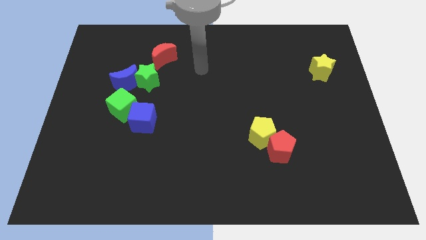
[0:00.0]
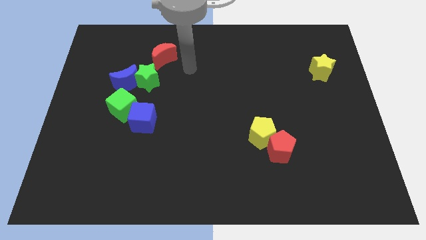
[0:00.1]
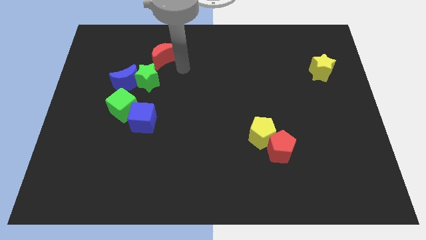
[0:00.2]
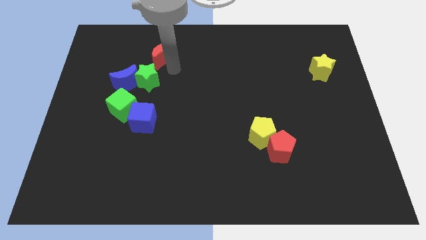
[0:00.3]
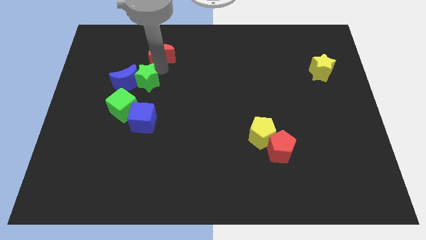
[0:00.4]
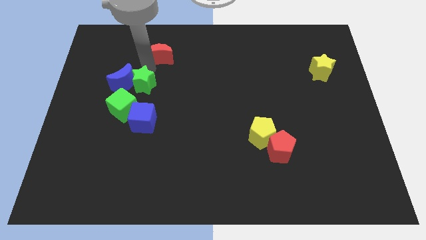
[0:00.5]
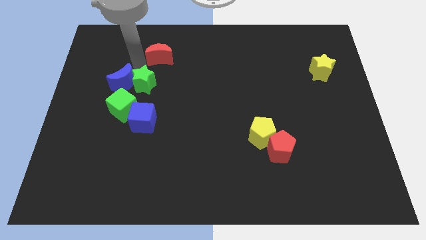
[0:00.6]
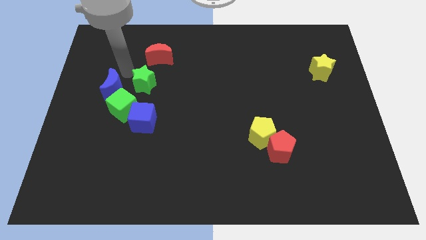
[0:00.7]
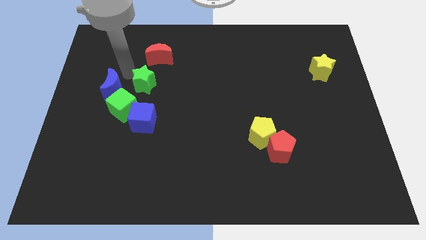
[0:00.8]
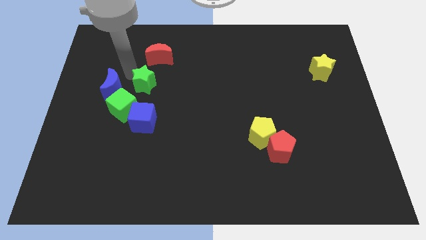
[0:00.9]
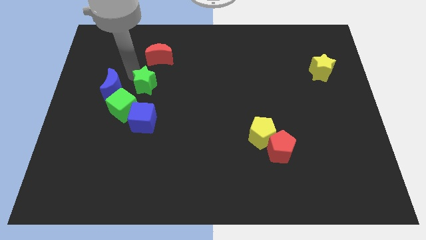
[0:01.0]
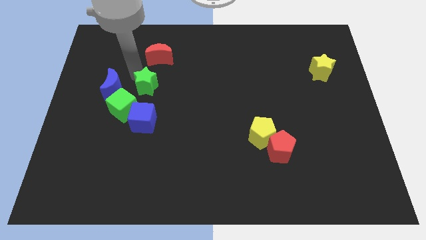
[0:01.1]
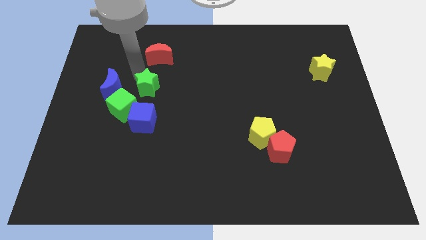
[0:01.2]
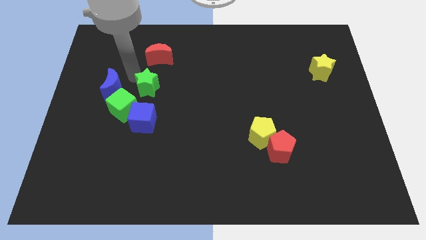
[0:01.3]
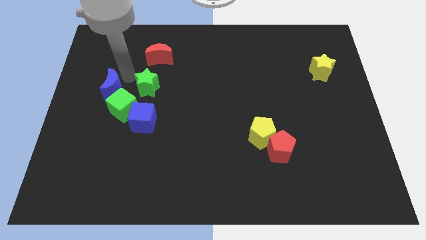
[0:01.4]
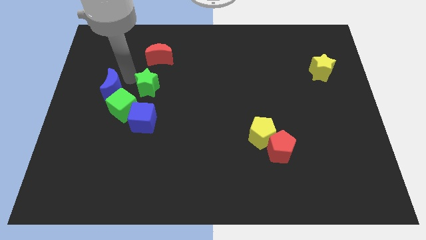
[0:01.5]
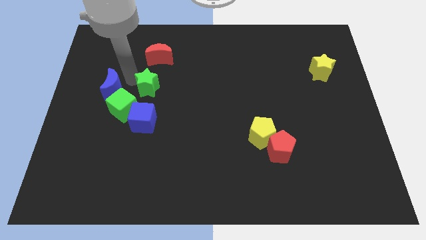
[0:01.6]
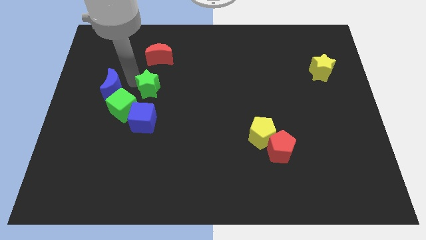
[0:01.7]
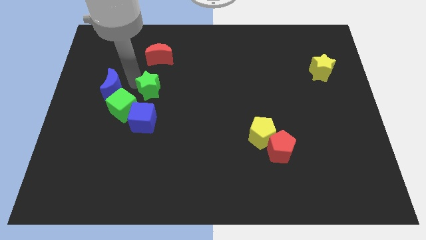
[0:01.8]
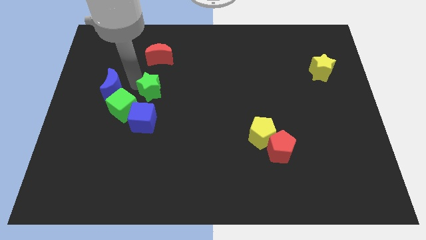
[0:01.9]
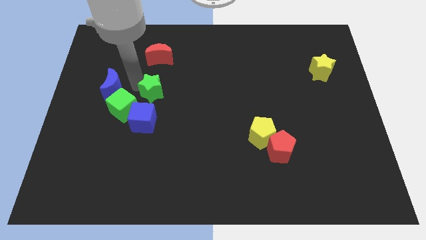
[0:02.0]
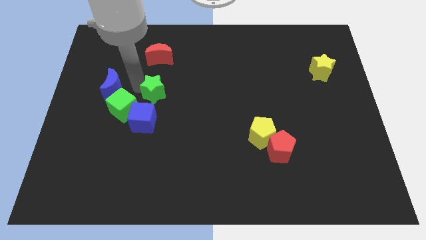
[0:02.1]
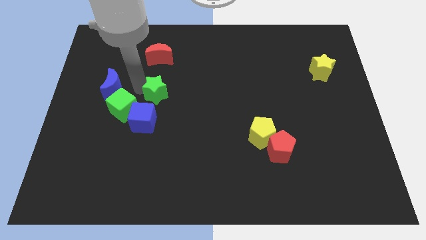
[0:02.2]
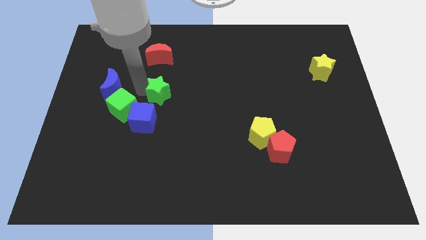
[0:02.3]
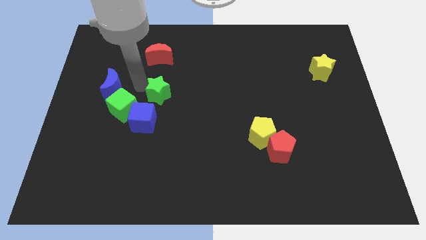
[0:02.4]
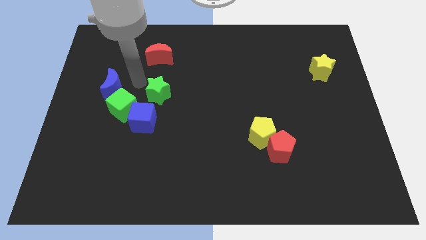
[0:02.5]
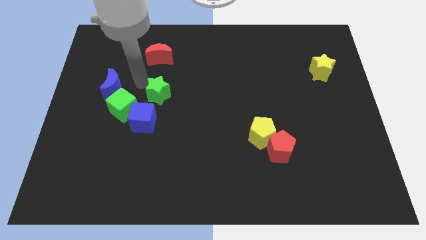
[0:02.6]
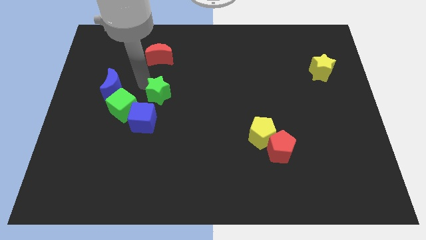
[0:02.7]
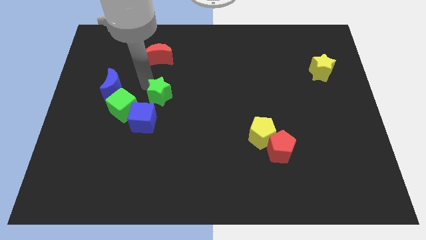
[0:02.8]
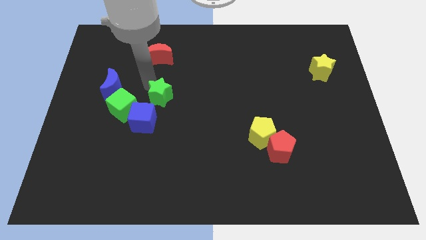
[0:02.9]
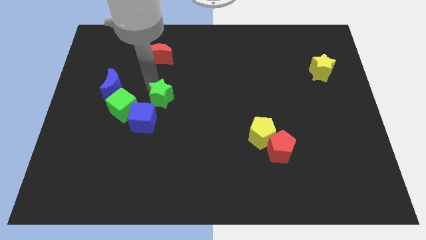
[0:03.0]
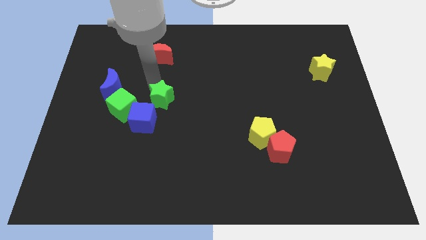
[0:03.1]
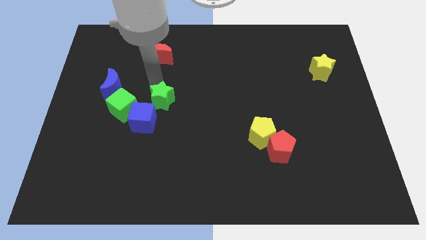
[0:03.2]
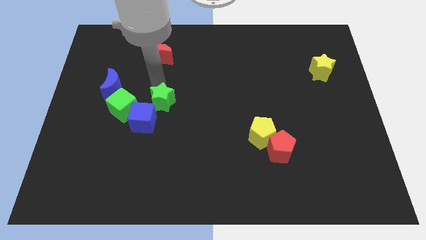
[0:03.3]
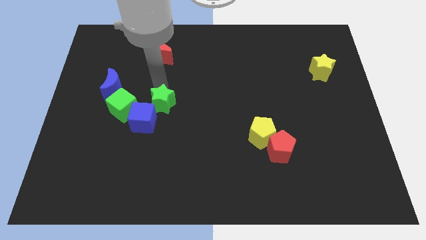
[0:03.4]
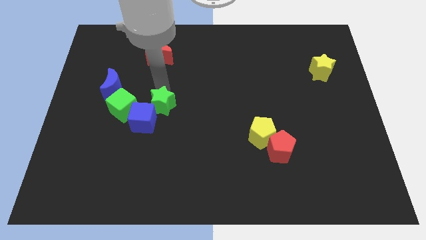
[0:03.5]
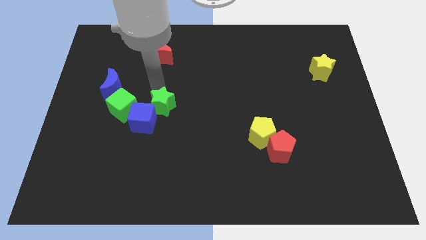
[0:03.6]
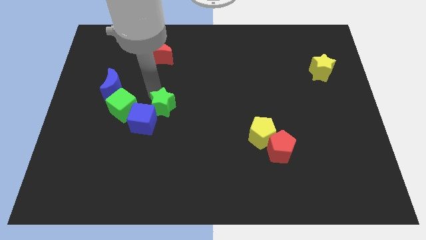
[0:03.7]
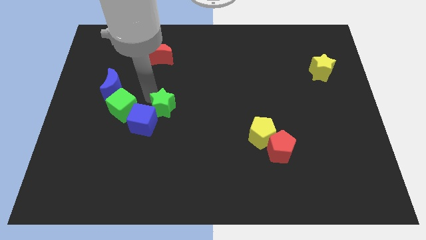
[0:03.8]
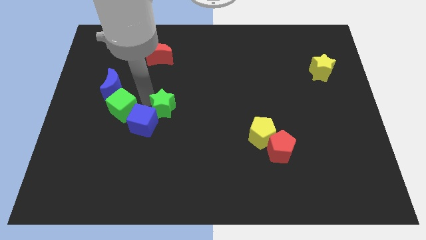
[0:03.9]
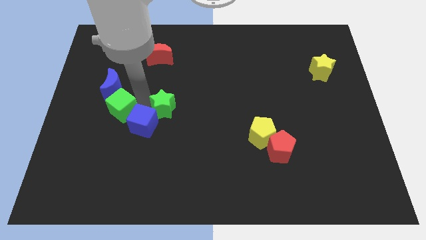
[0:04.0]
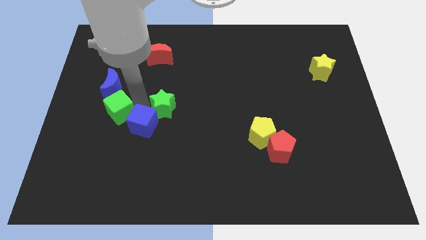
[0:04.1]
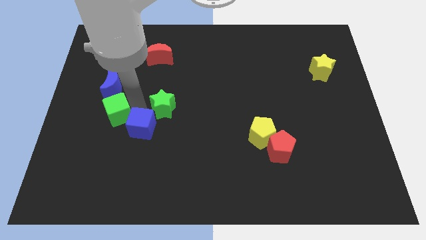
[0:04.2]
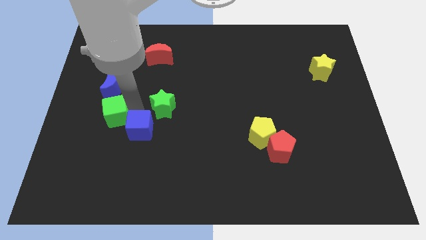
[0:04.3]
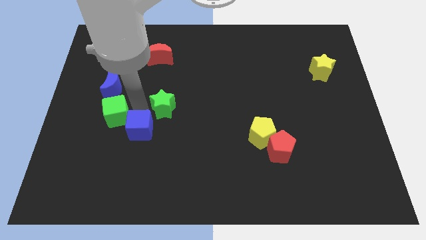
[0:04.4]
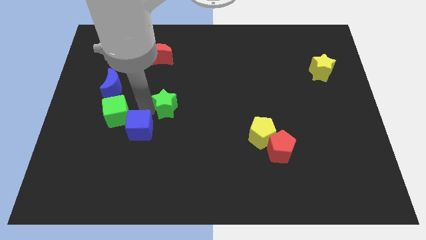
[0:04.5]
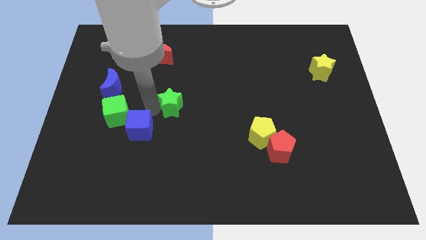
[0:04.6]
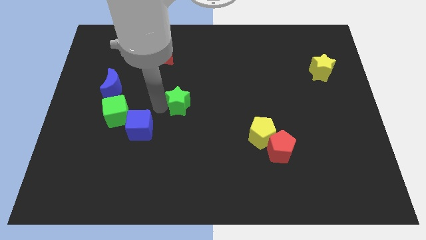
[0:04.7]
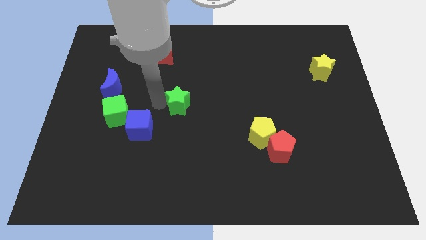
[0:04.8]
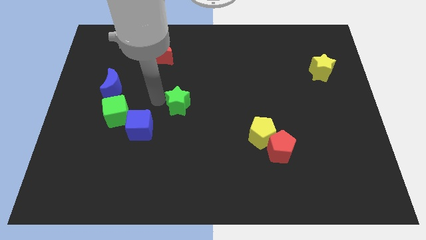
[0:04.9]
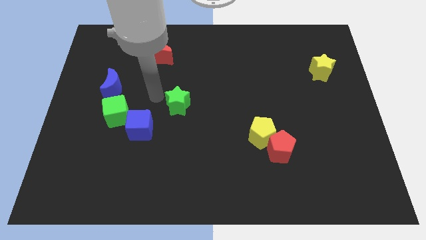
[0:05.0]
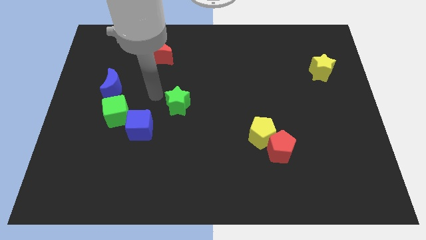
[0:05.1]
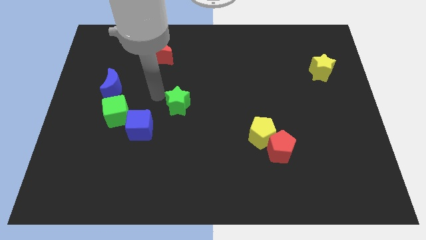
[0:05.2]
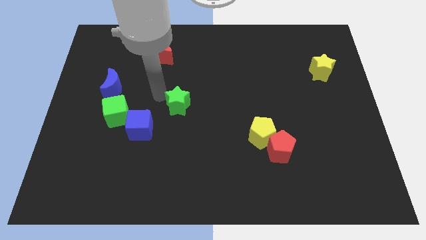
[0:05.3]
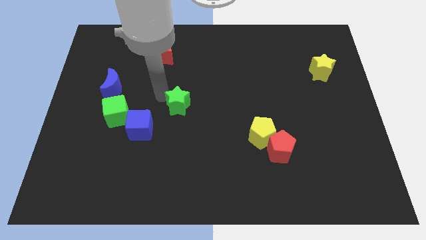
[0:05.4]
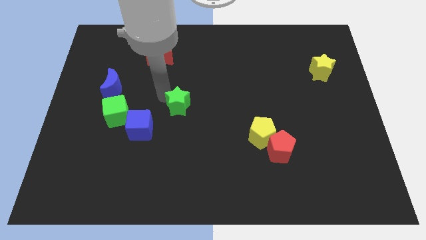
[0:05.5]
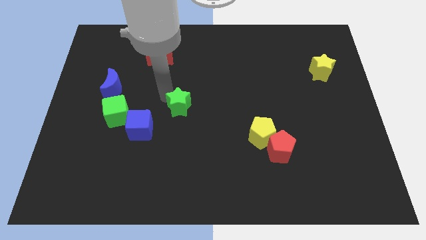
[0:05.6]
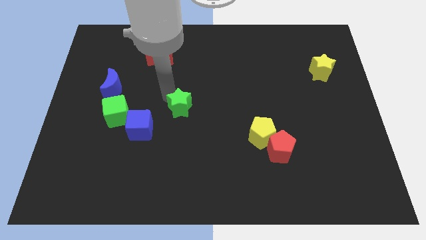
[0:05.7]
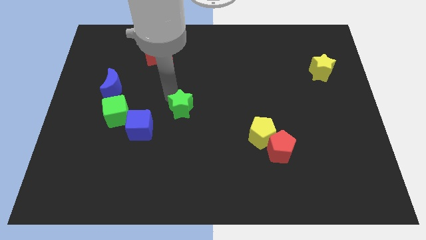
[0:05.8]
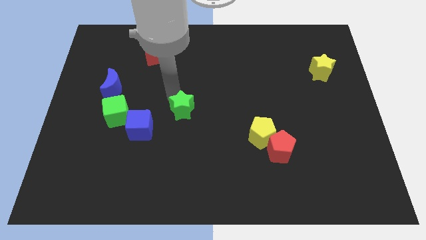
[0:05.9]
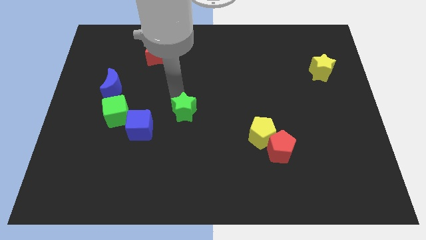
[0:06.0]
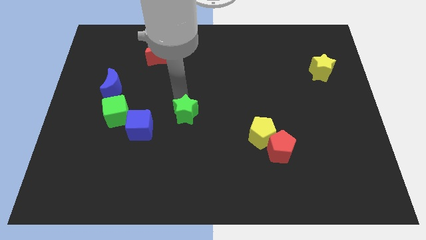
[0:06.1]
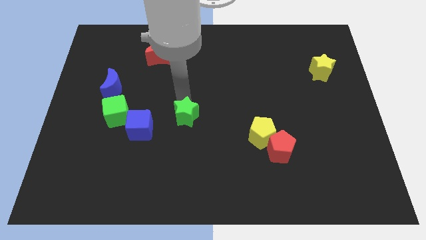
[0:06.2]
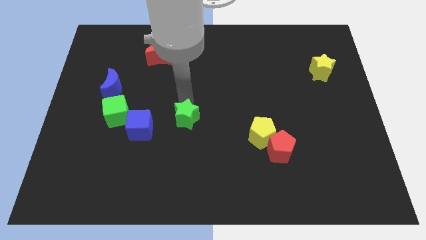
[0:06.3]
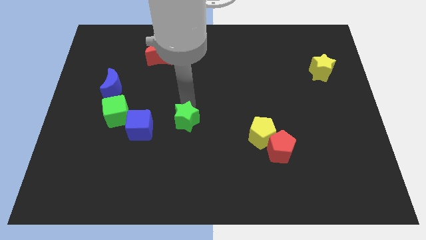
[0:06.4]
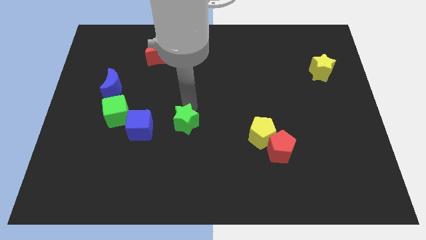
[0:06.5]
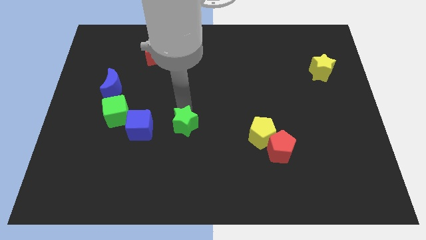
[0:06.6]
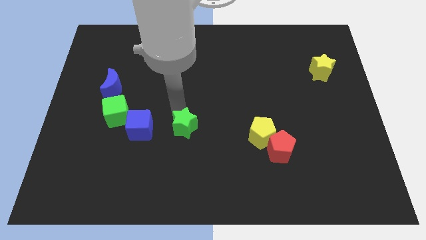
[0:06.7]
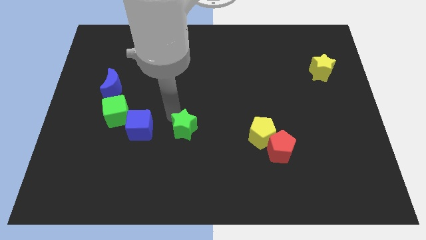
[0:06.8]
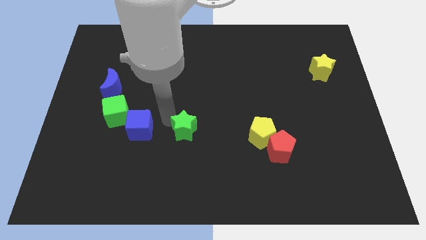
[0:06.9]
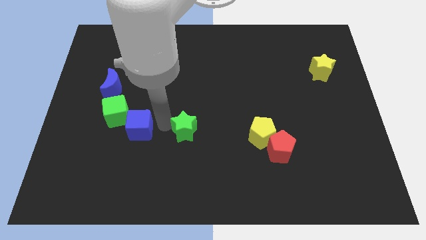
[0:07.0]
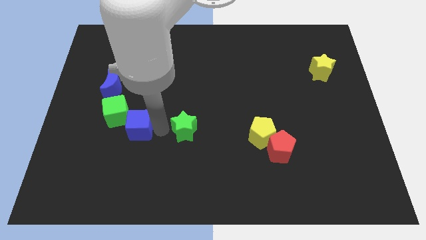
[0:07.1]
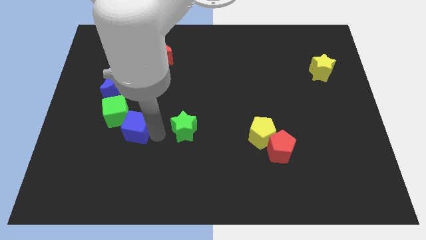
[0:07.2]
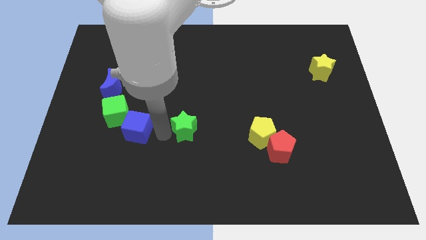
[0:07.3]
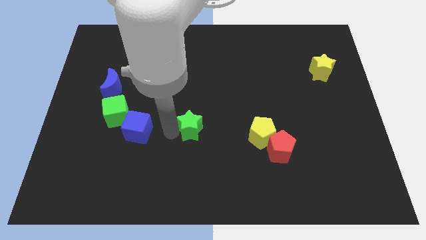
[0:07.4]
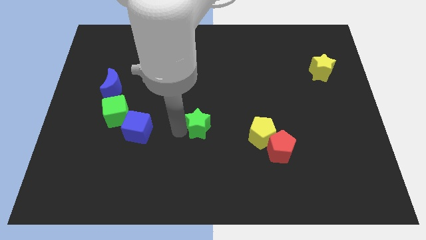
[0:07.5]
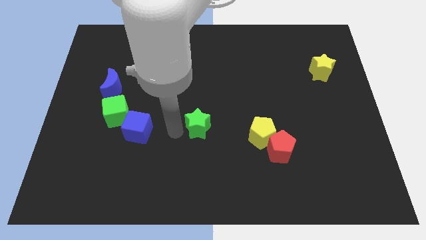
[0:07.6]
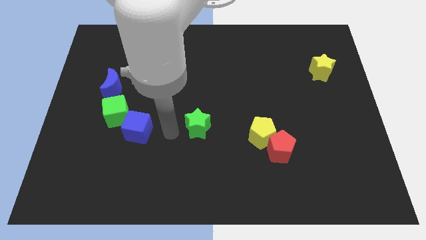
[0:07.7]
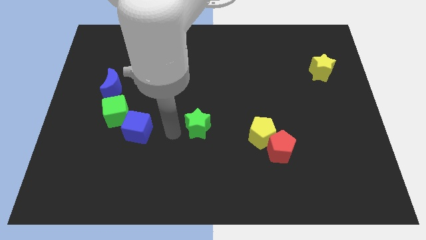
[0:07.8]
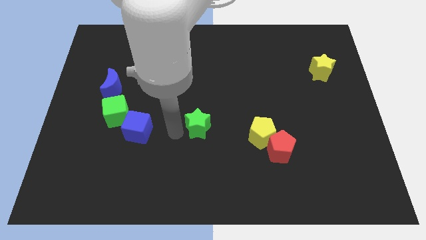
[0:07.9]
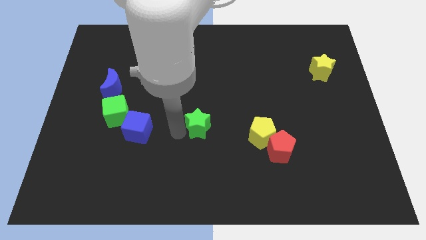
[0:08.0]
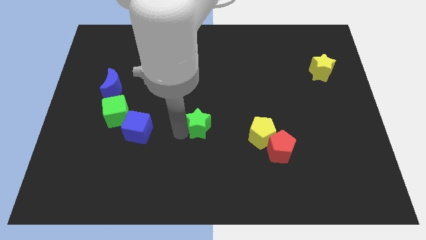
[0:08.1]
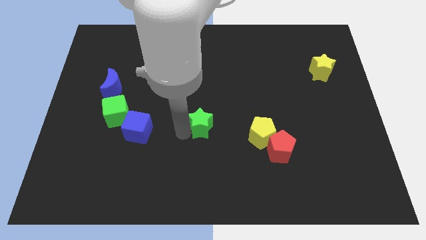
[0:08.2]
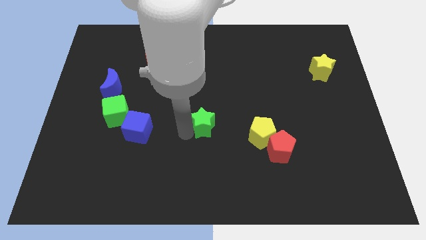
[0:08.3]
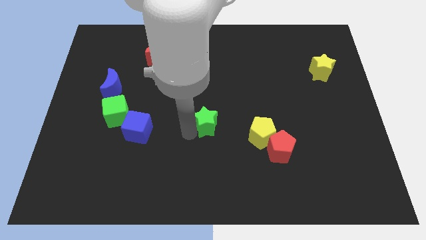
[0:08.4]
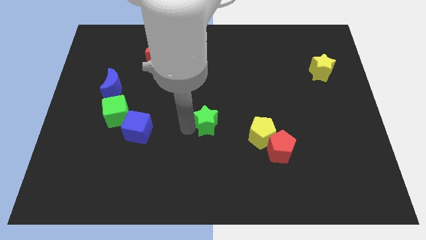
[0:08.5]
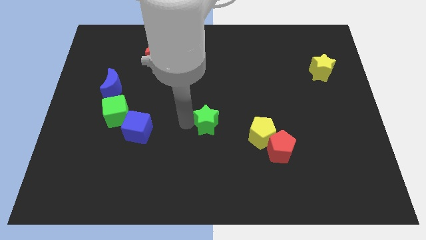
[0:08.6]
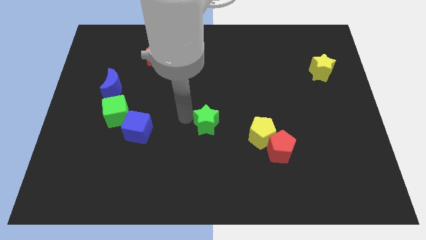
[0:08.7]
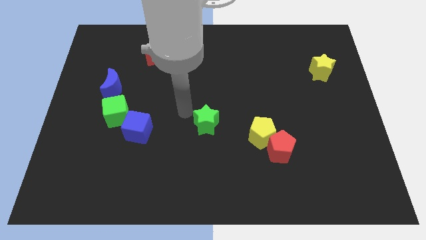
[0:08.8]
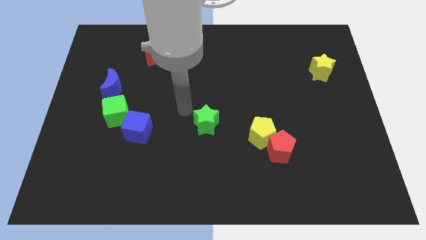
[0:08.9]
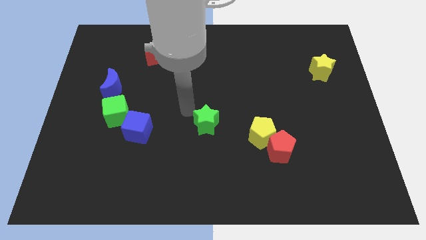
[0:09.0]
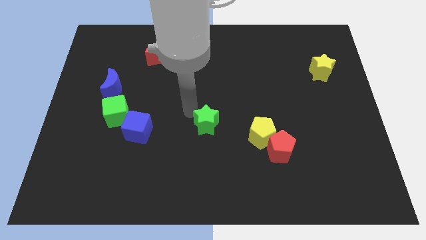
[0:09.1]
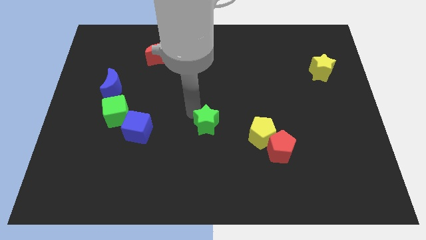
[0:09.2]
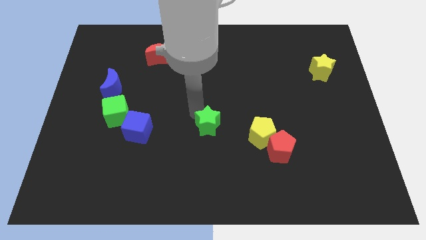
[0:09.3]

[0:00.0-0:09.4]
move the green star downwards and right diagonally
